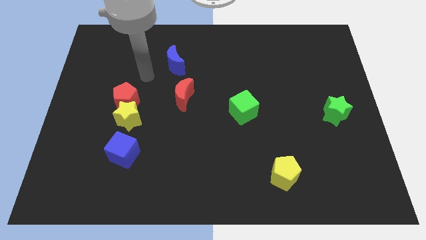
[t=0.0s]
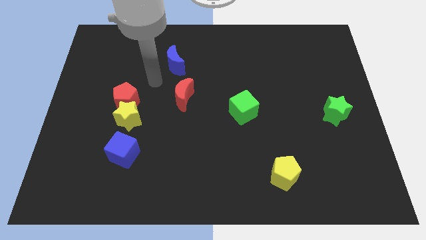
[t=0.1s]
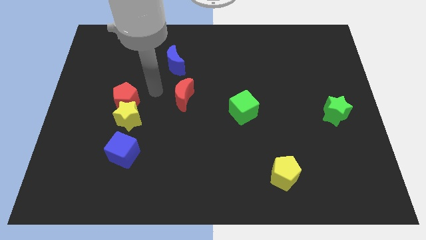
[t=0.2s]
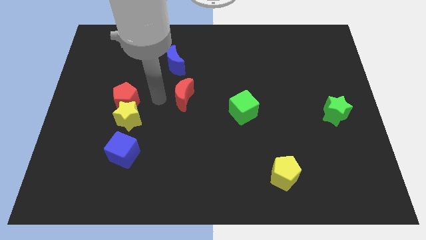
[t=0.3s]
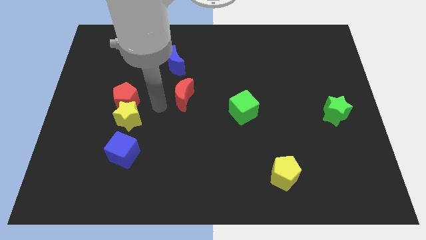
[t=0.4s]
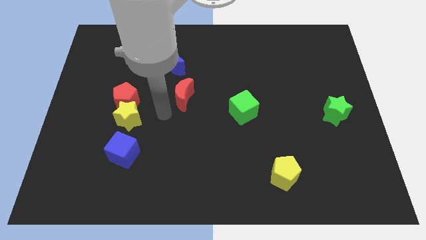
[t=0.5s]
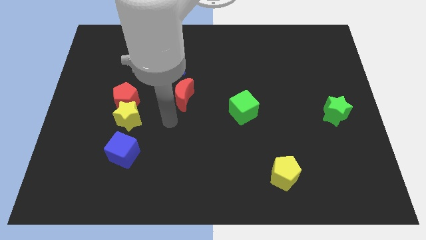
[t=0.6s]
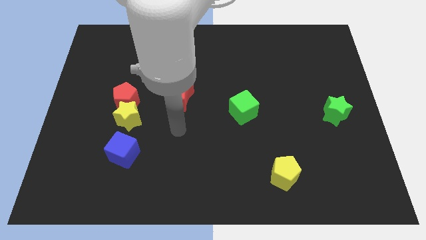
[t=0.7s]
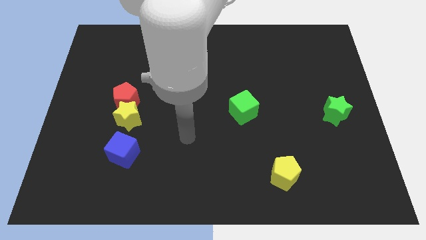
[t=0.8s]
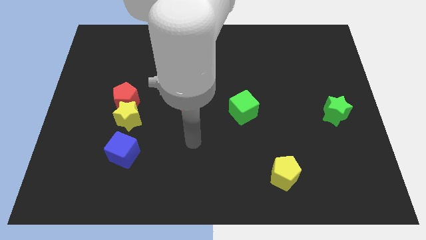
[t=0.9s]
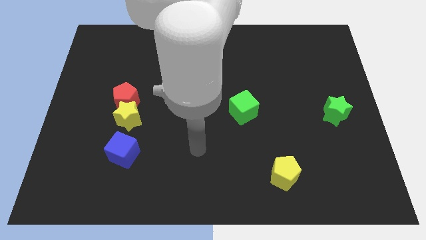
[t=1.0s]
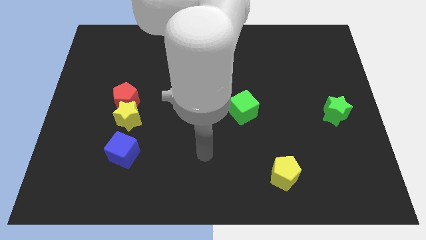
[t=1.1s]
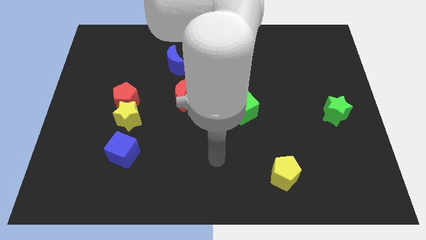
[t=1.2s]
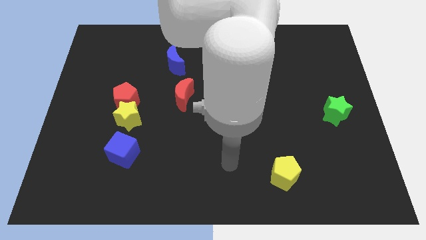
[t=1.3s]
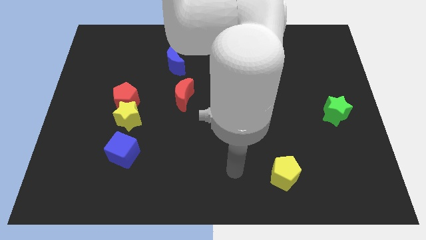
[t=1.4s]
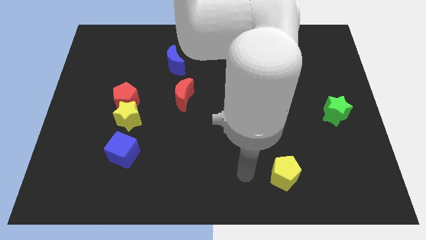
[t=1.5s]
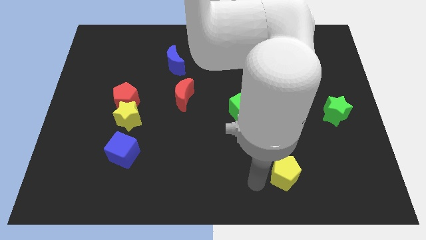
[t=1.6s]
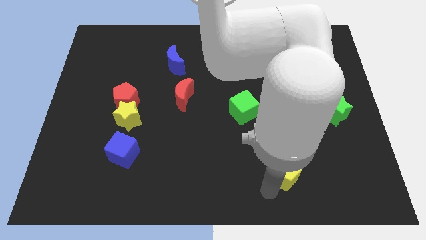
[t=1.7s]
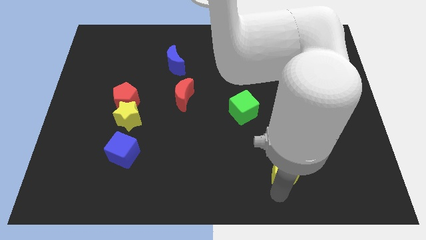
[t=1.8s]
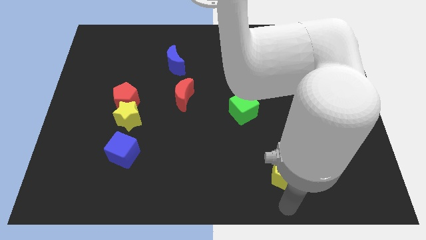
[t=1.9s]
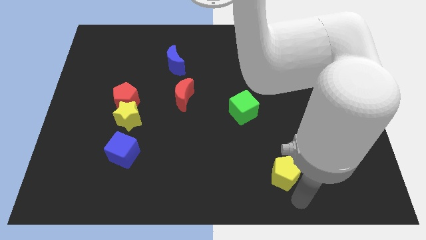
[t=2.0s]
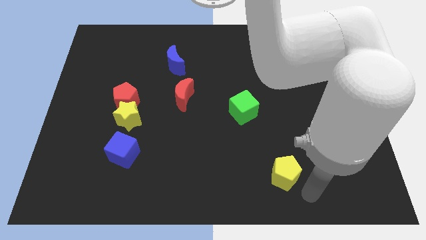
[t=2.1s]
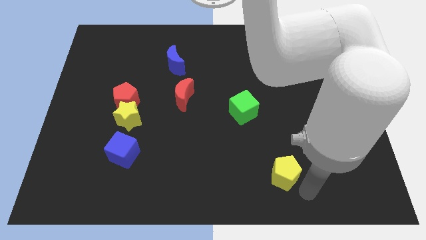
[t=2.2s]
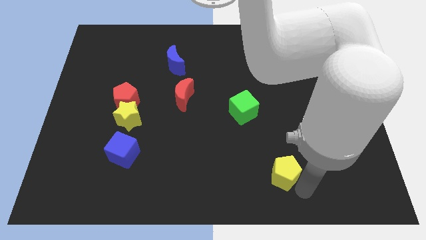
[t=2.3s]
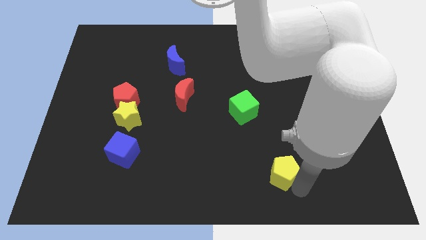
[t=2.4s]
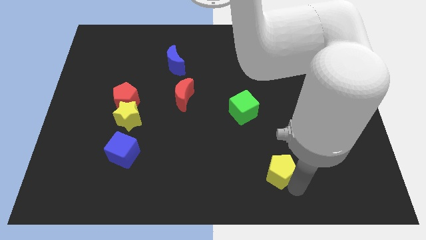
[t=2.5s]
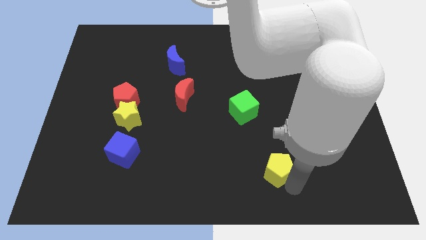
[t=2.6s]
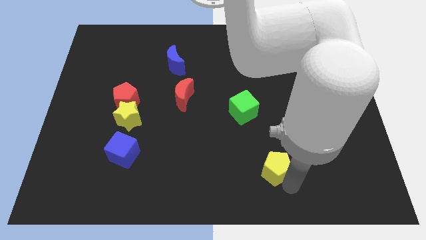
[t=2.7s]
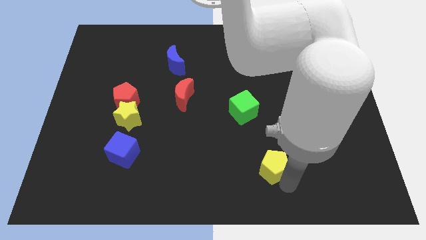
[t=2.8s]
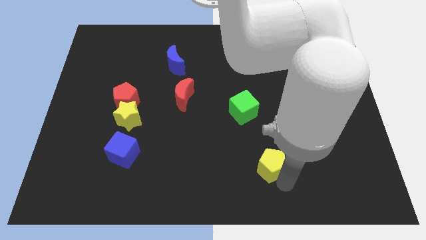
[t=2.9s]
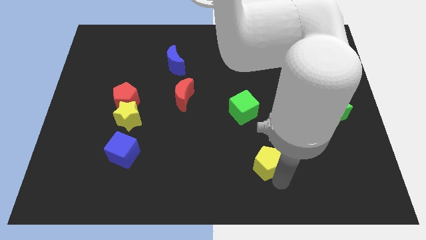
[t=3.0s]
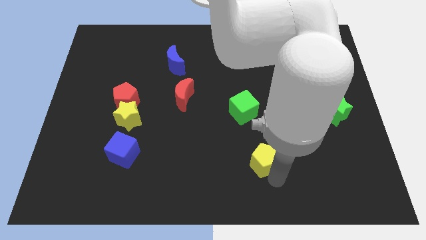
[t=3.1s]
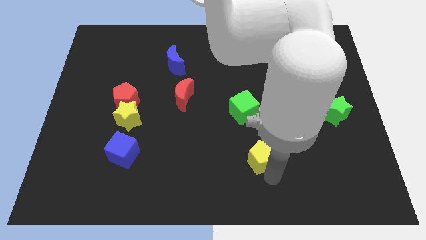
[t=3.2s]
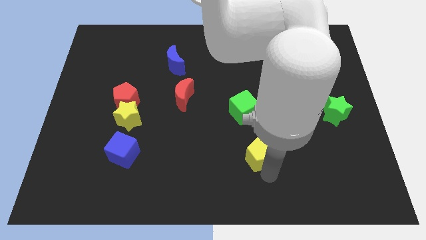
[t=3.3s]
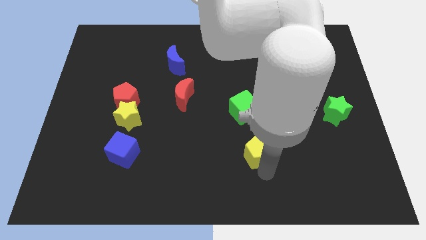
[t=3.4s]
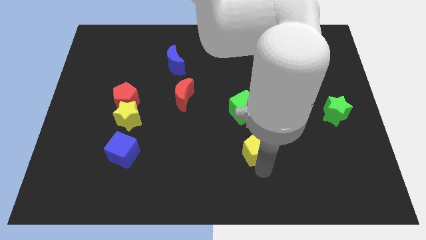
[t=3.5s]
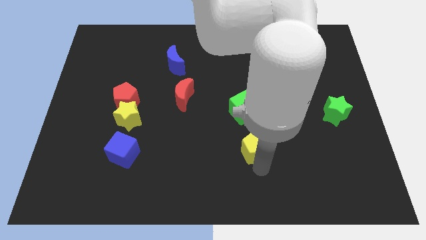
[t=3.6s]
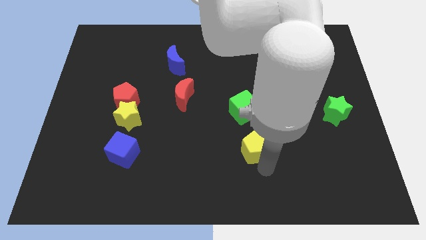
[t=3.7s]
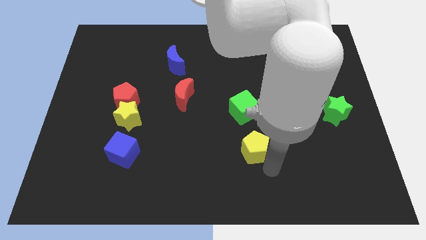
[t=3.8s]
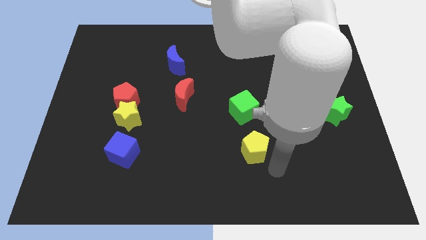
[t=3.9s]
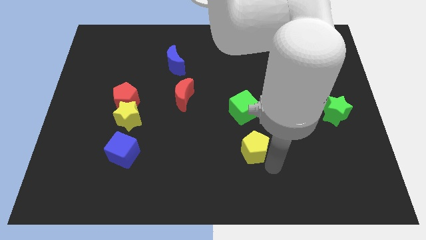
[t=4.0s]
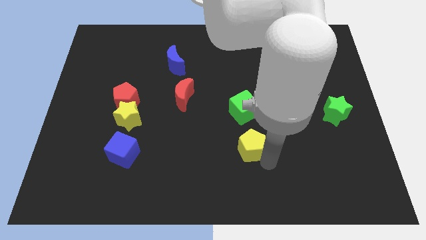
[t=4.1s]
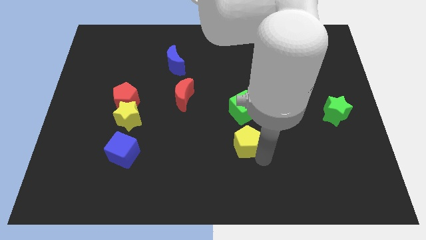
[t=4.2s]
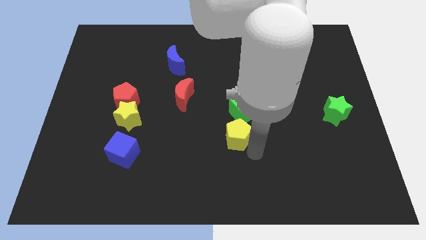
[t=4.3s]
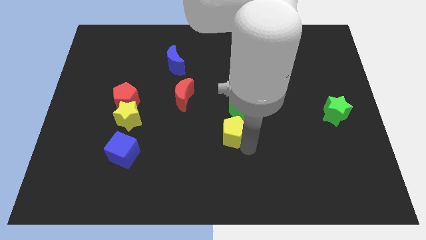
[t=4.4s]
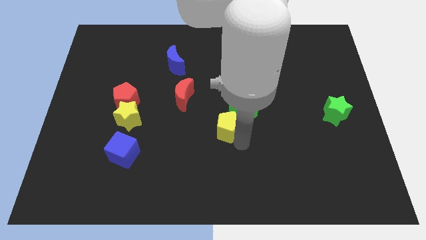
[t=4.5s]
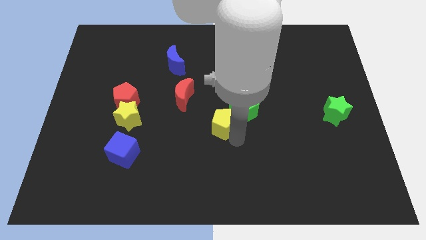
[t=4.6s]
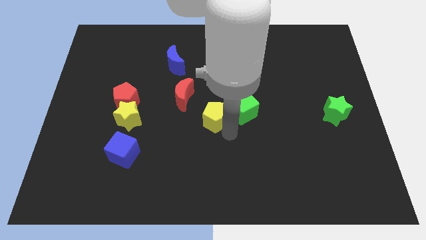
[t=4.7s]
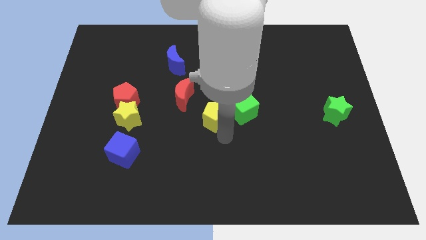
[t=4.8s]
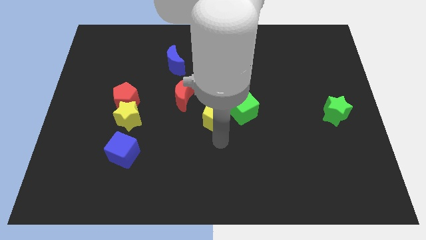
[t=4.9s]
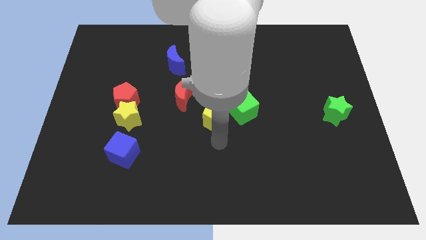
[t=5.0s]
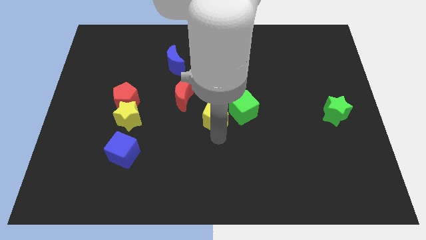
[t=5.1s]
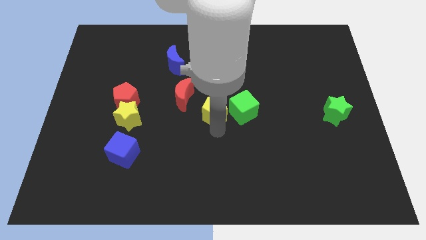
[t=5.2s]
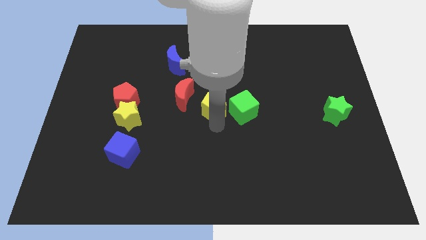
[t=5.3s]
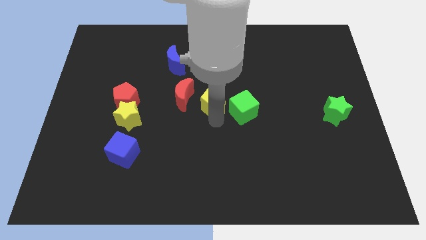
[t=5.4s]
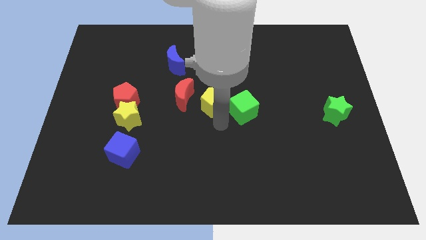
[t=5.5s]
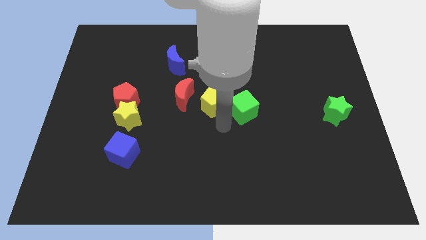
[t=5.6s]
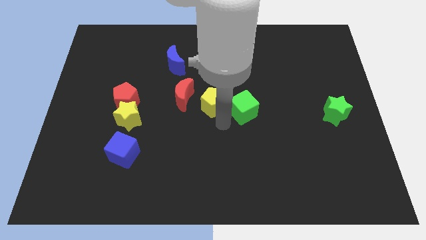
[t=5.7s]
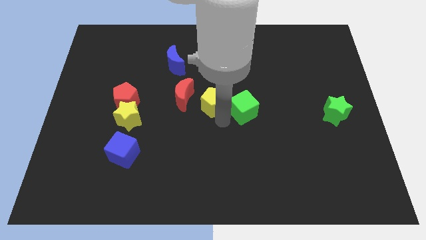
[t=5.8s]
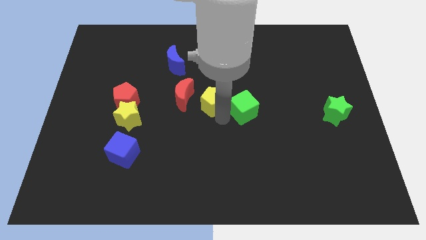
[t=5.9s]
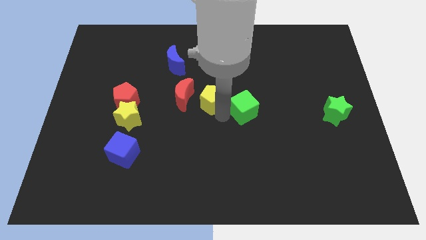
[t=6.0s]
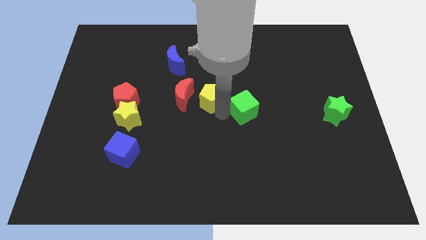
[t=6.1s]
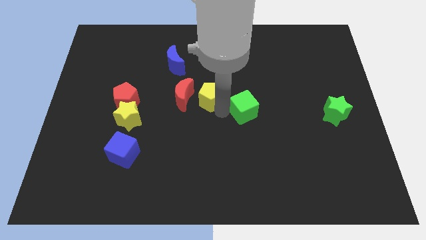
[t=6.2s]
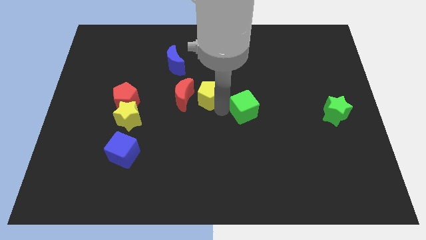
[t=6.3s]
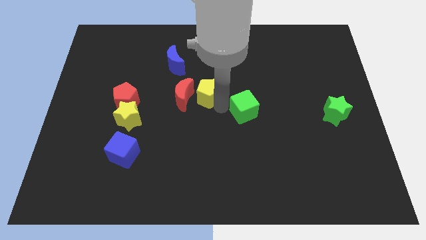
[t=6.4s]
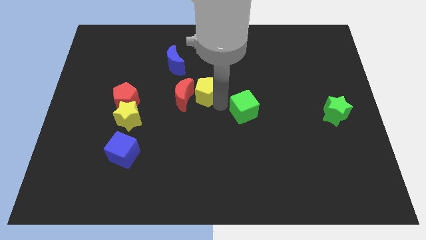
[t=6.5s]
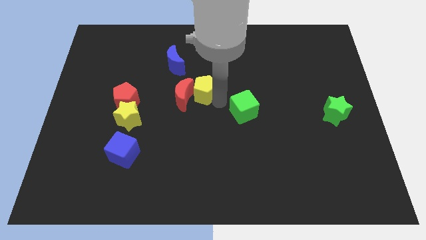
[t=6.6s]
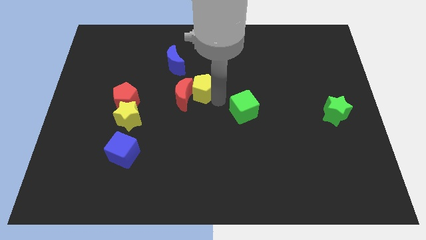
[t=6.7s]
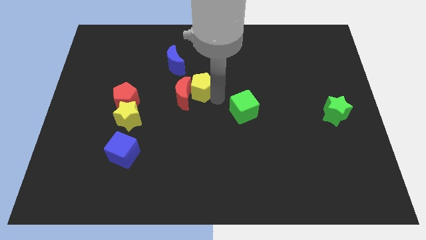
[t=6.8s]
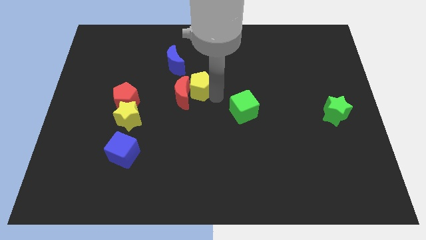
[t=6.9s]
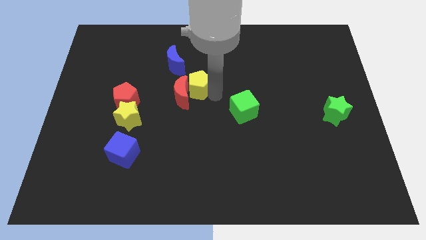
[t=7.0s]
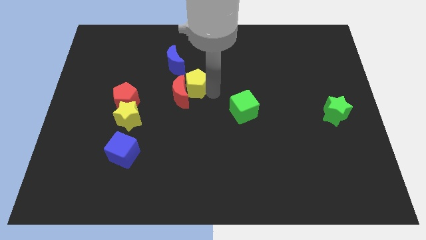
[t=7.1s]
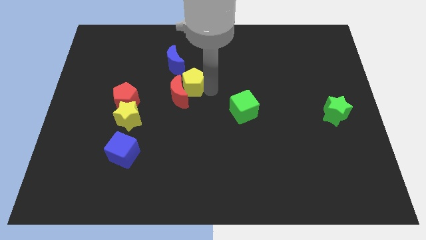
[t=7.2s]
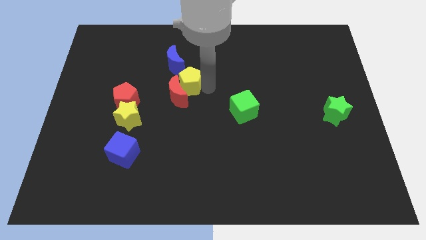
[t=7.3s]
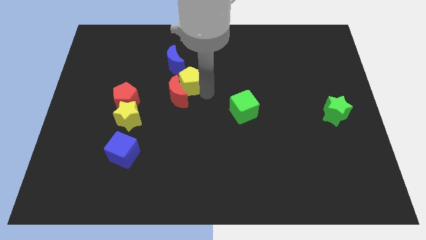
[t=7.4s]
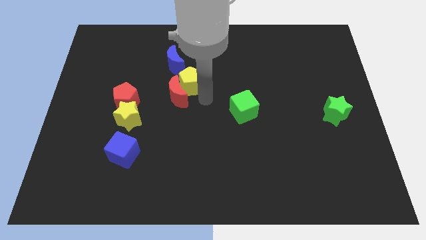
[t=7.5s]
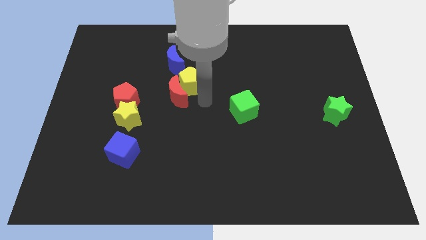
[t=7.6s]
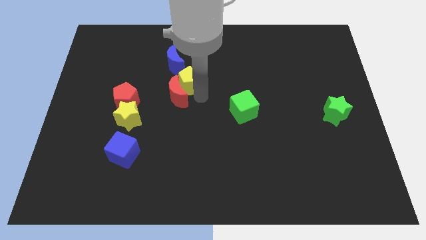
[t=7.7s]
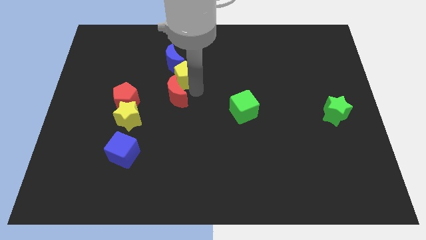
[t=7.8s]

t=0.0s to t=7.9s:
slide the yellow pentagon to the blue moon
